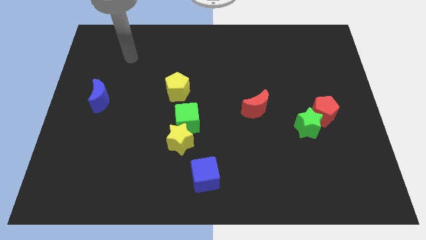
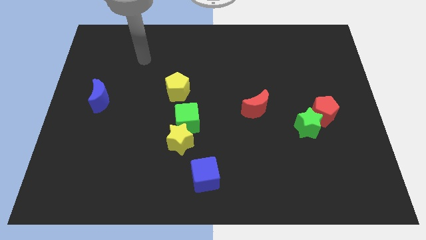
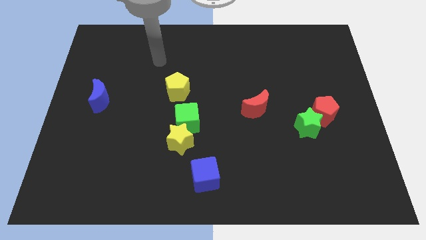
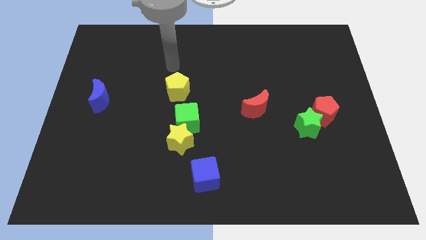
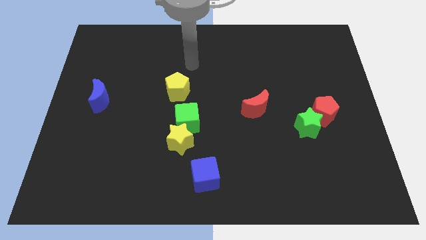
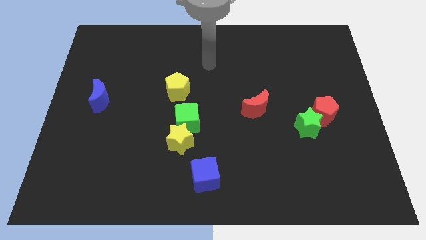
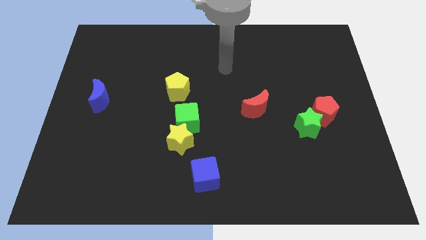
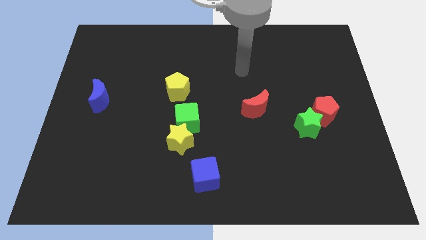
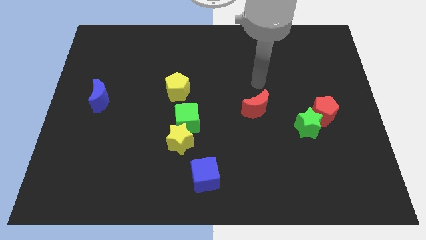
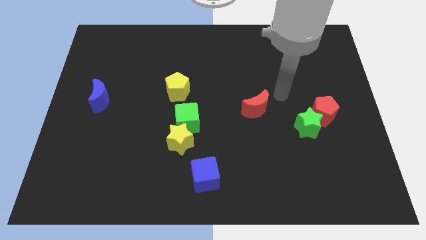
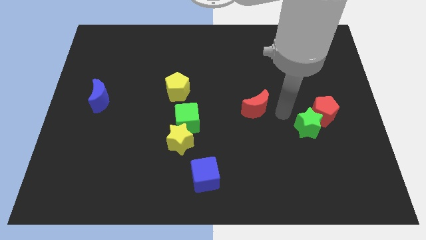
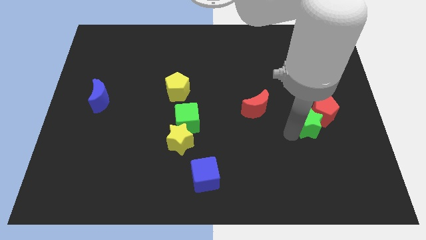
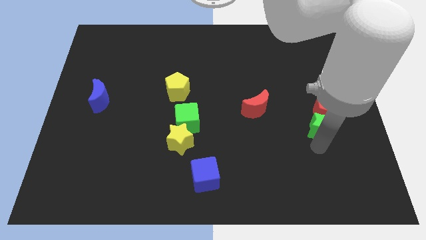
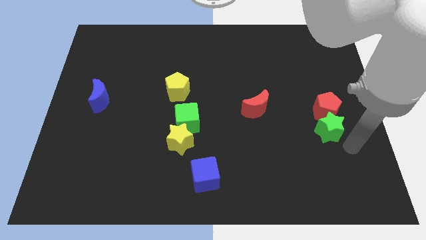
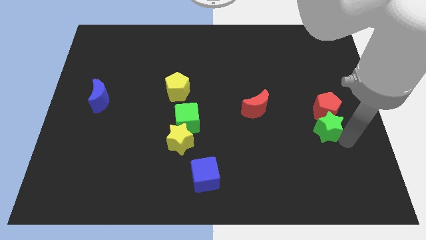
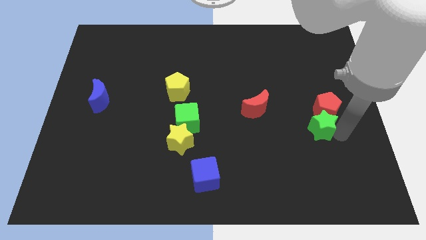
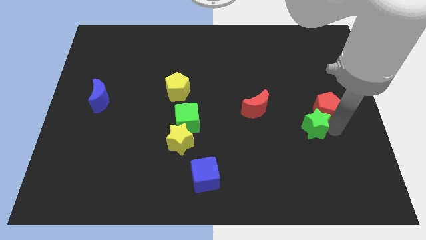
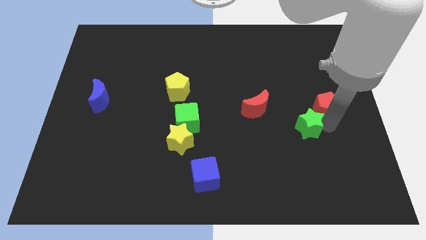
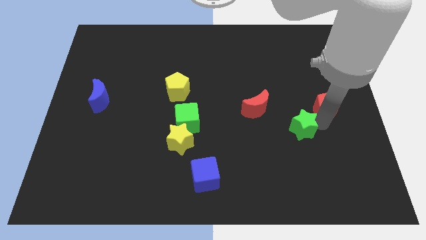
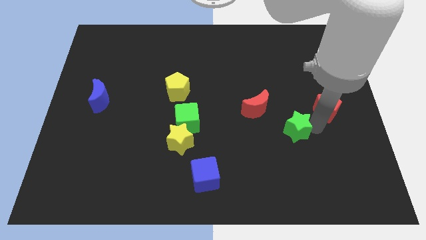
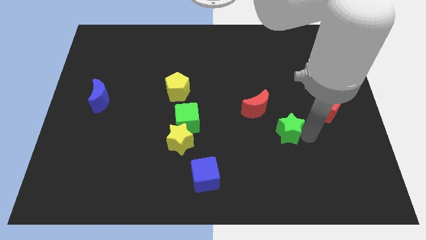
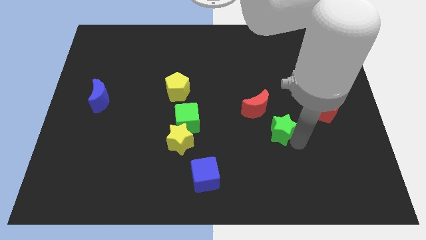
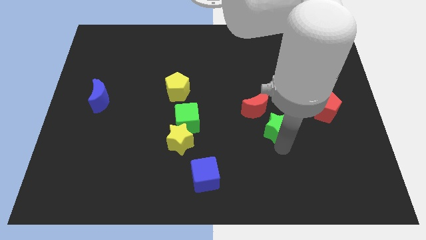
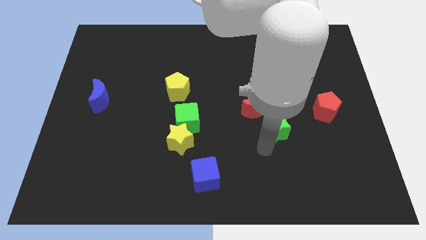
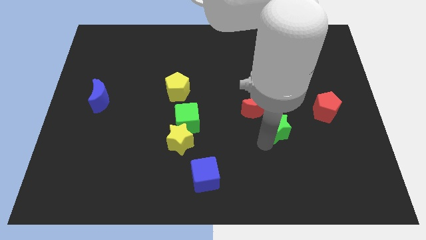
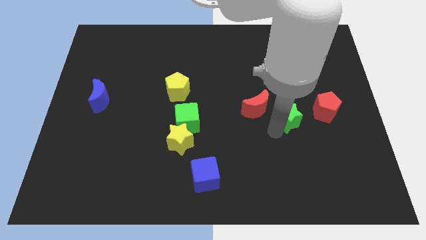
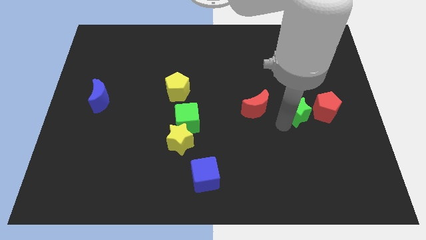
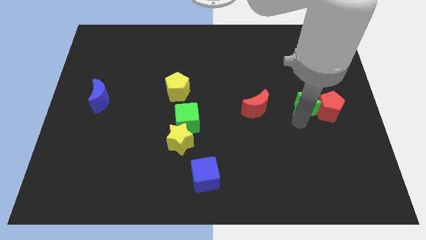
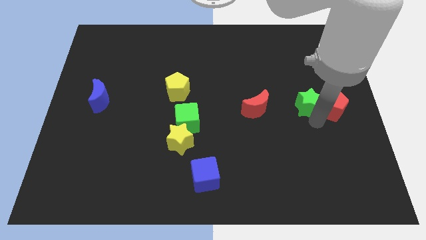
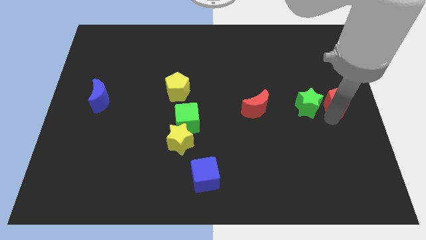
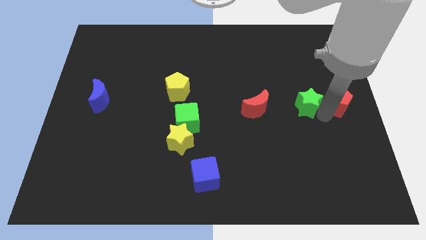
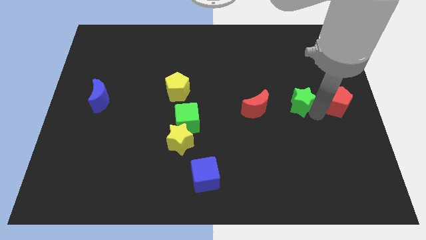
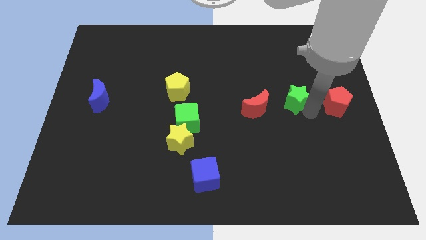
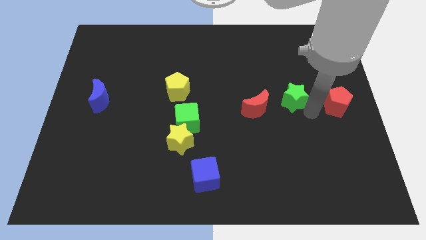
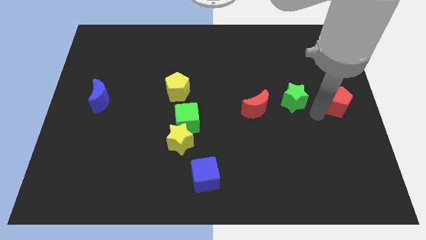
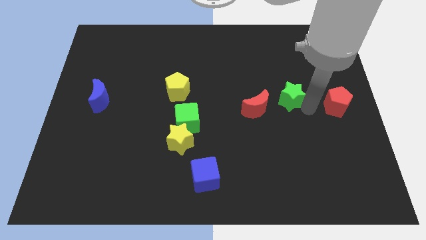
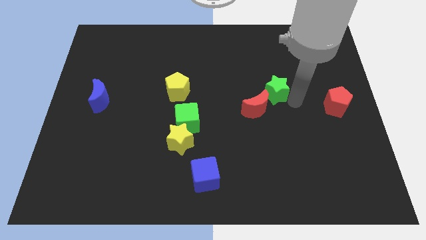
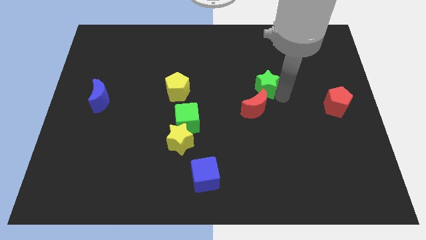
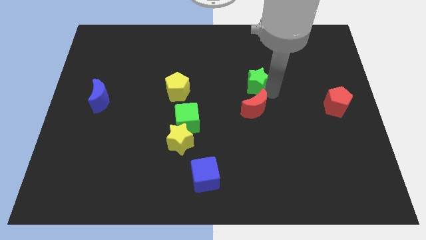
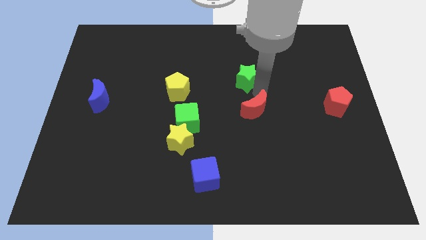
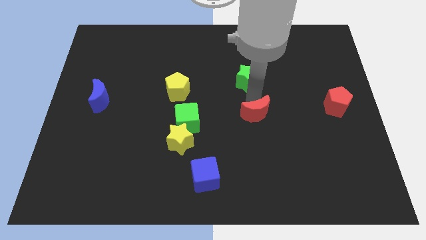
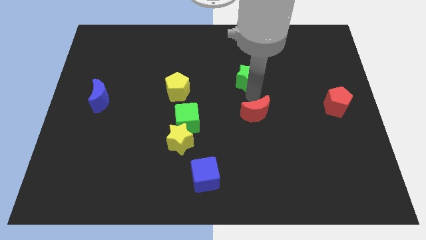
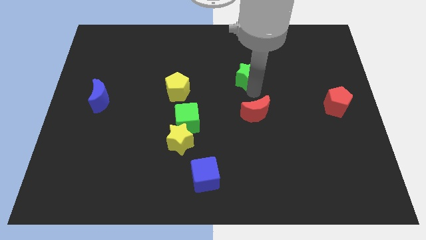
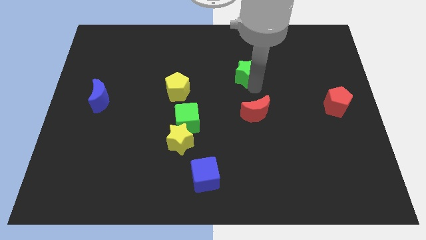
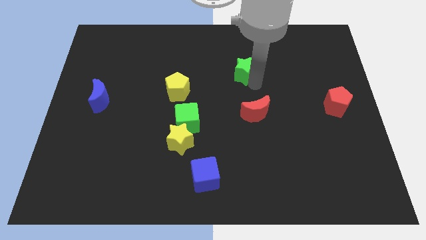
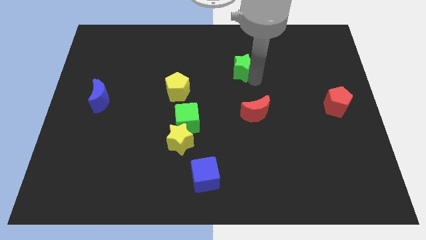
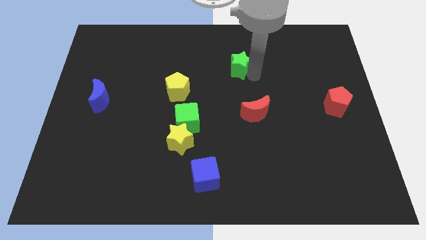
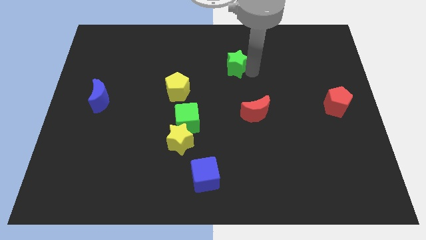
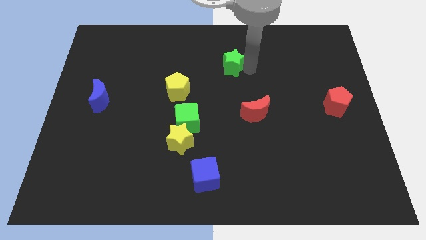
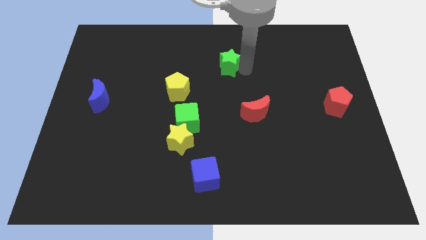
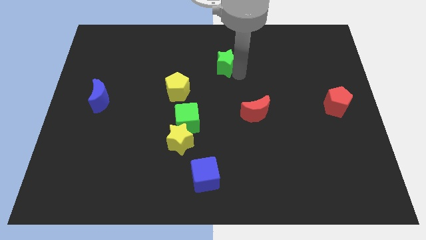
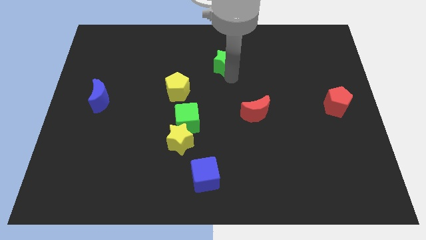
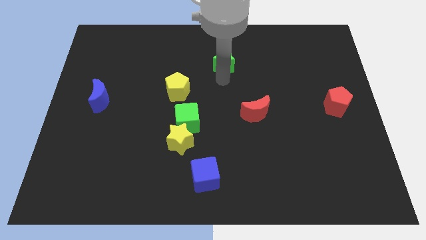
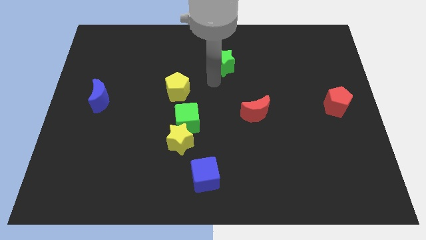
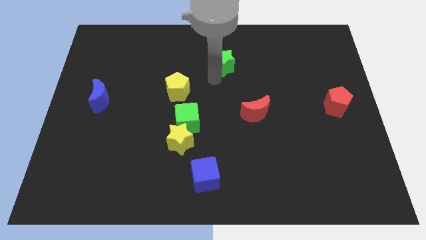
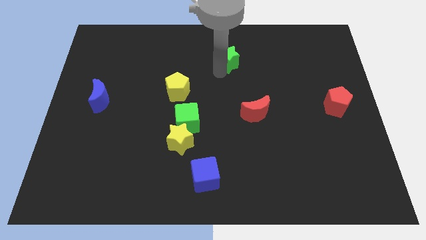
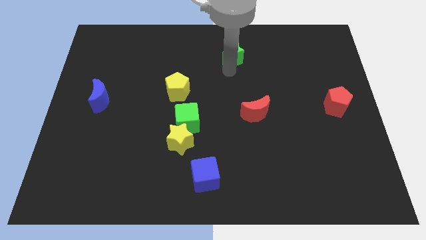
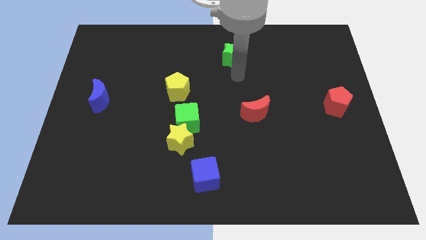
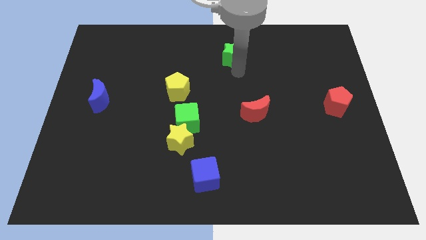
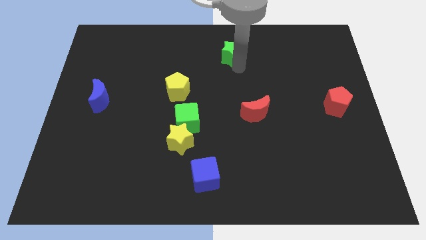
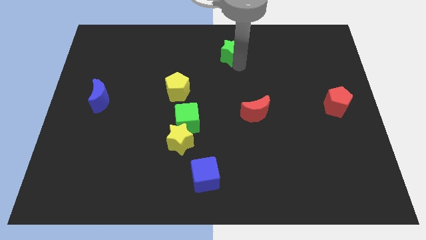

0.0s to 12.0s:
move the green star to the top

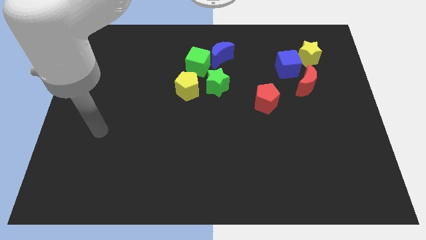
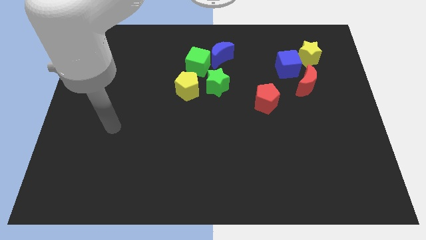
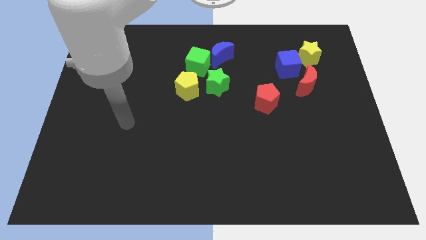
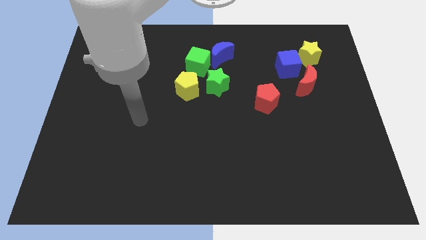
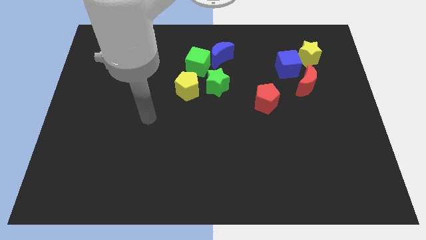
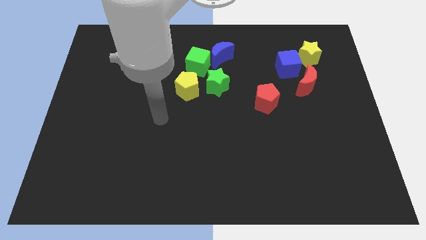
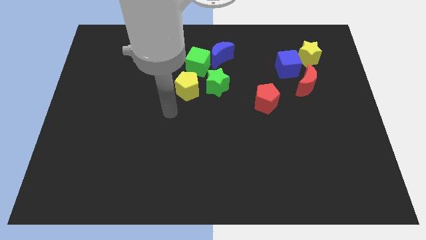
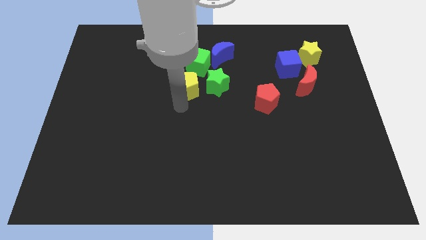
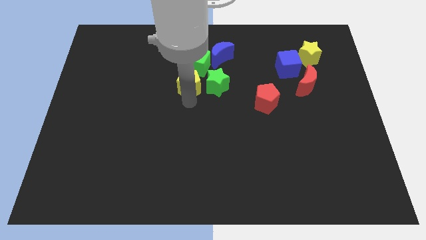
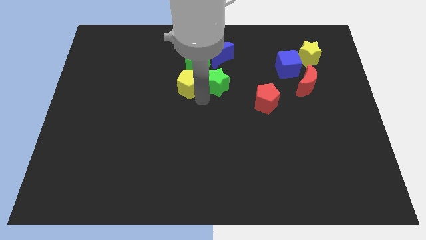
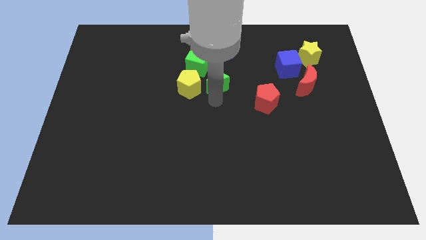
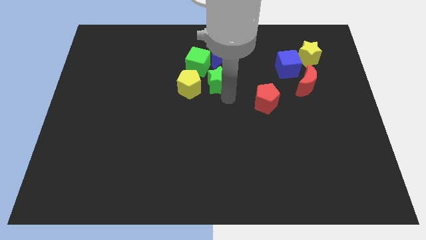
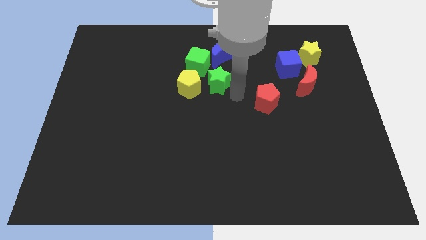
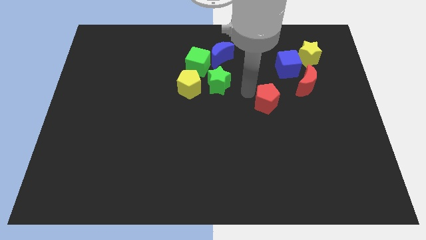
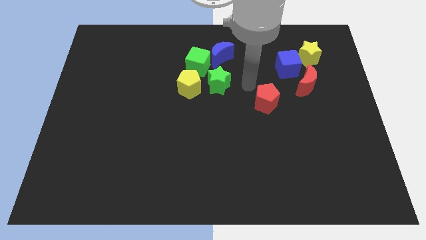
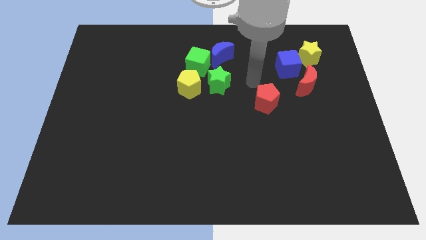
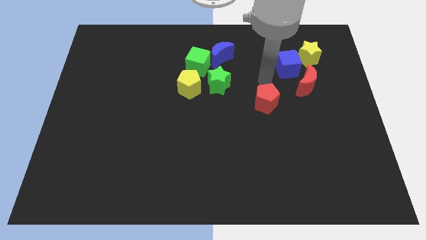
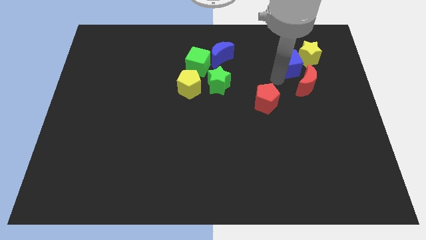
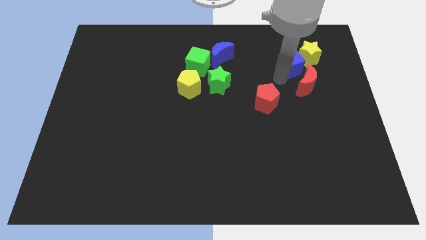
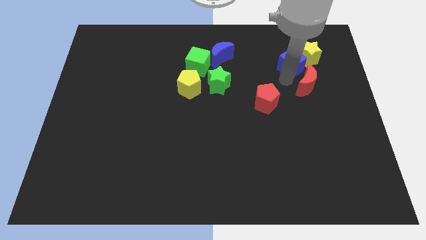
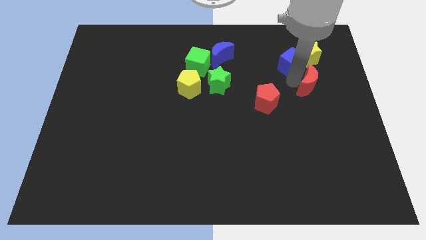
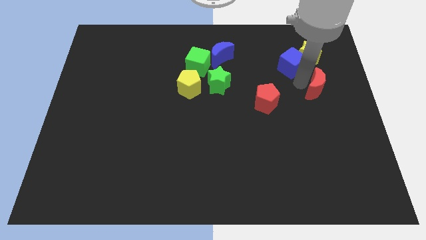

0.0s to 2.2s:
put the red moon to the right side of the board
